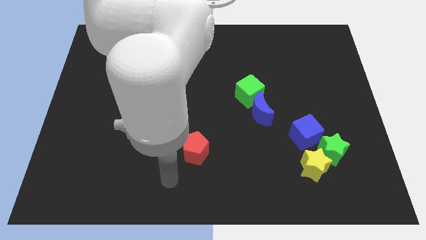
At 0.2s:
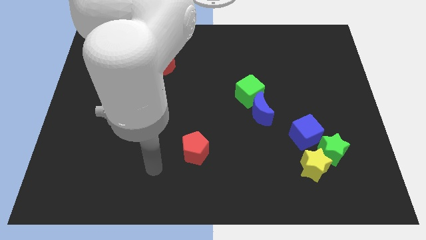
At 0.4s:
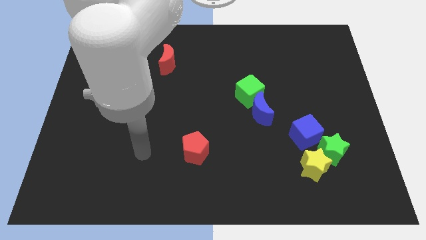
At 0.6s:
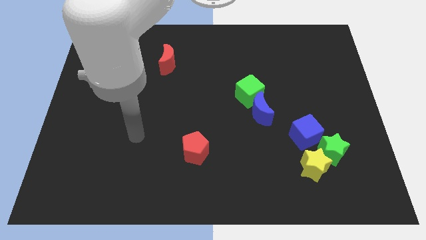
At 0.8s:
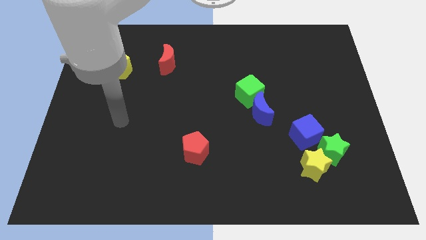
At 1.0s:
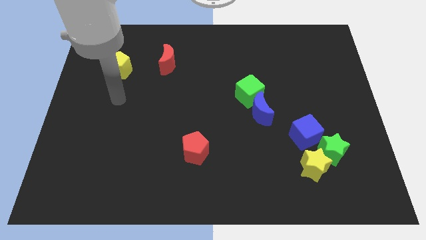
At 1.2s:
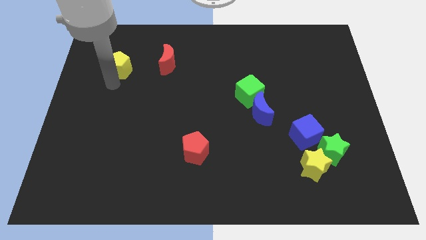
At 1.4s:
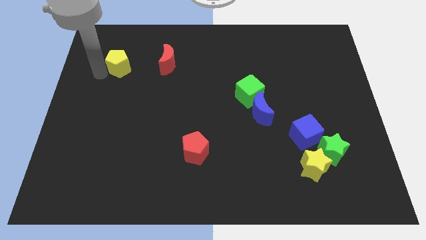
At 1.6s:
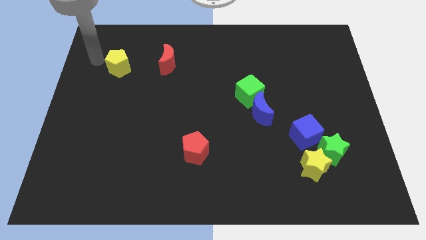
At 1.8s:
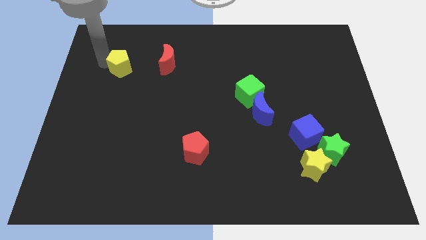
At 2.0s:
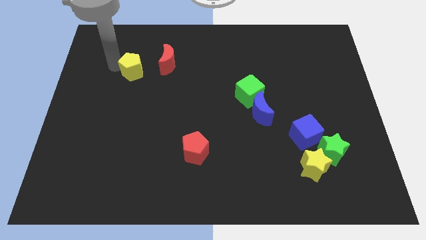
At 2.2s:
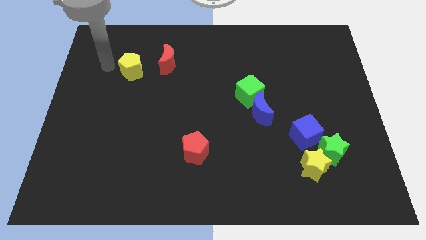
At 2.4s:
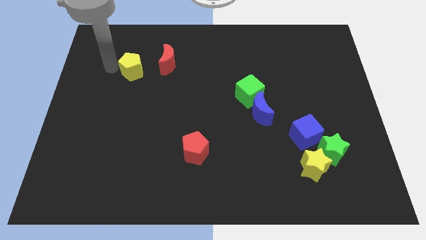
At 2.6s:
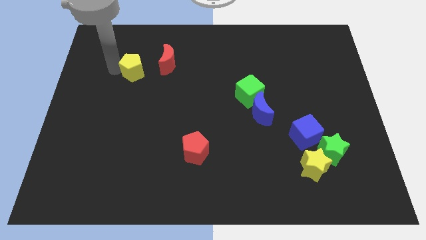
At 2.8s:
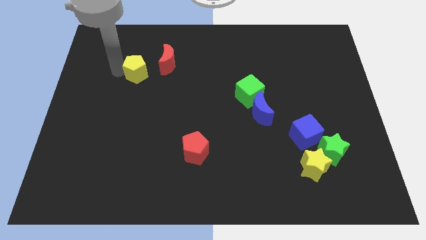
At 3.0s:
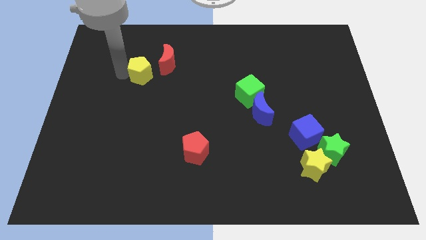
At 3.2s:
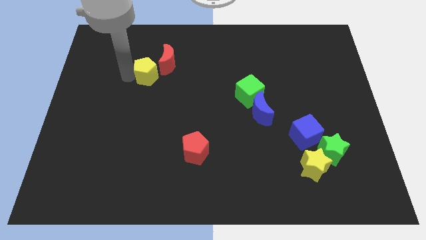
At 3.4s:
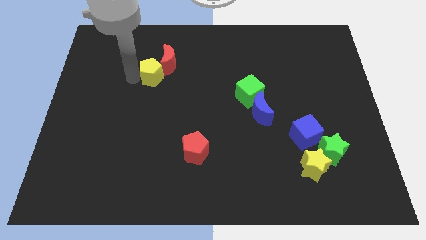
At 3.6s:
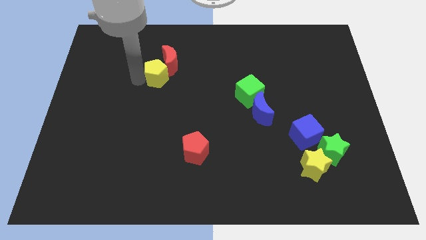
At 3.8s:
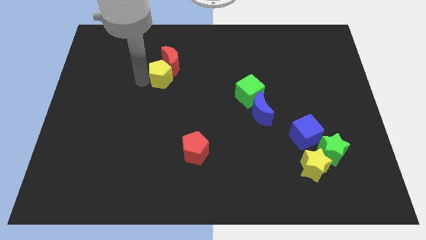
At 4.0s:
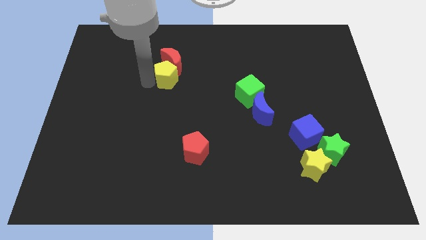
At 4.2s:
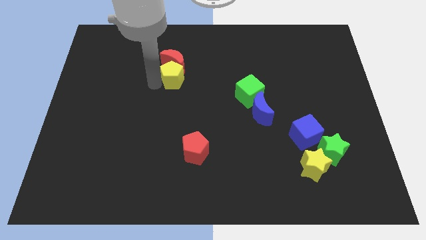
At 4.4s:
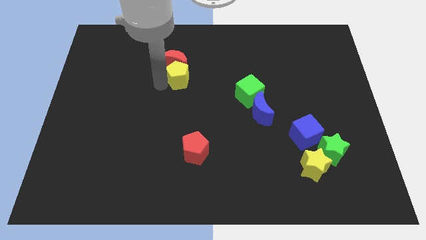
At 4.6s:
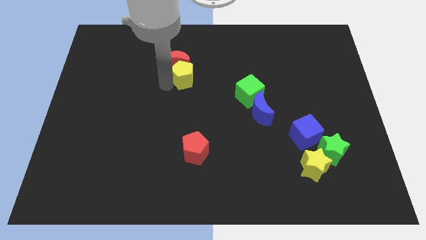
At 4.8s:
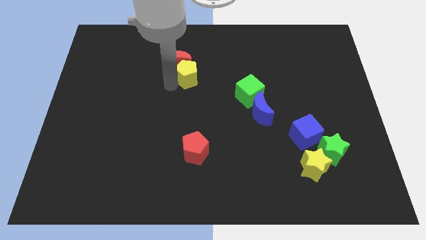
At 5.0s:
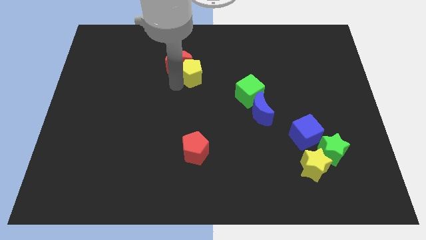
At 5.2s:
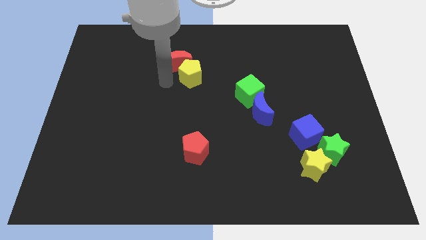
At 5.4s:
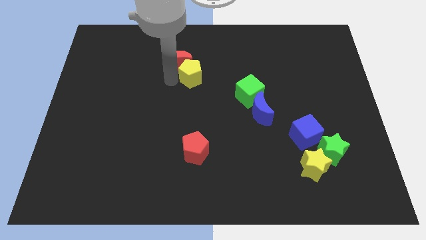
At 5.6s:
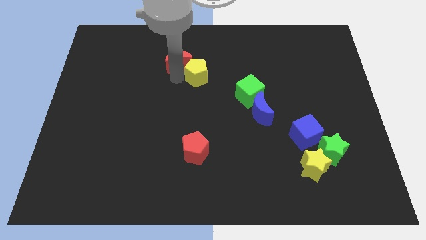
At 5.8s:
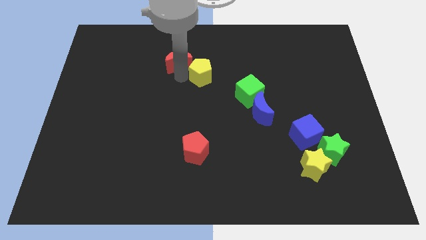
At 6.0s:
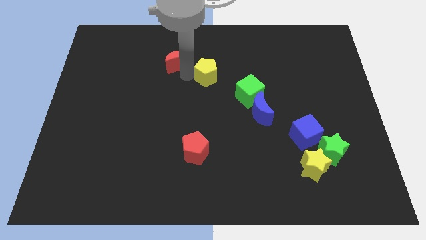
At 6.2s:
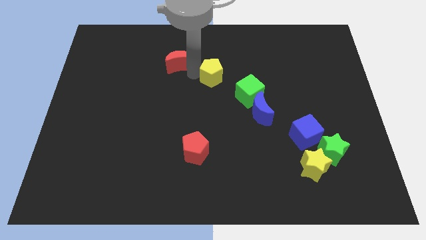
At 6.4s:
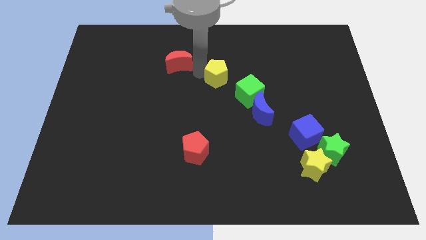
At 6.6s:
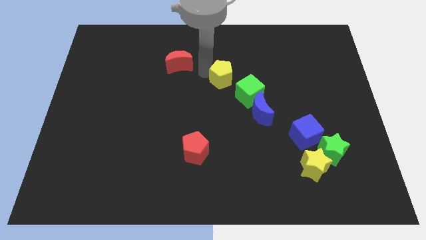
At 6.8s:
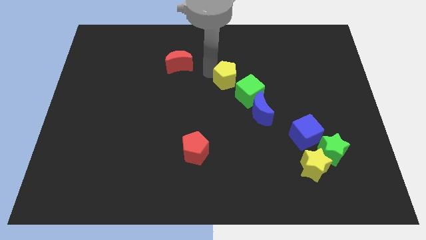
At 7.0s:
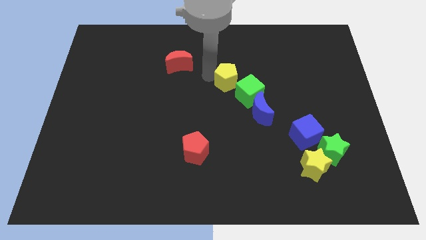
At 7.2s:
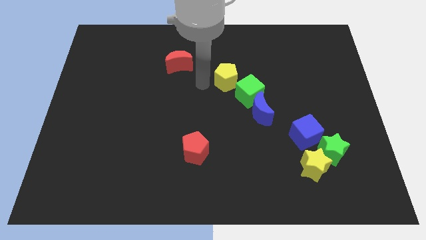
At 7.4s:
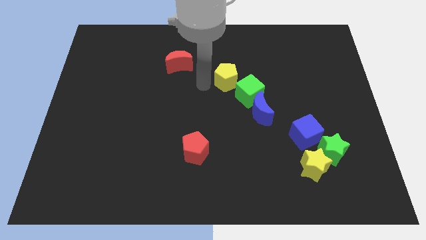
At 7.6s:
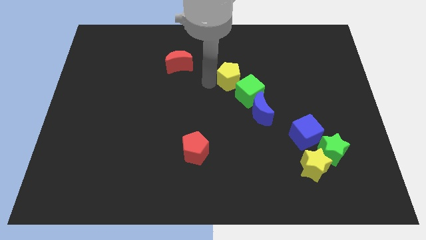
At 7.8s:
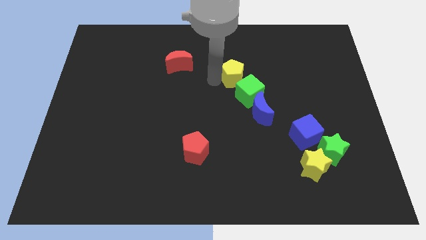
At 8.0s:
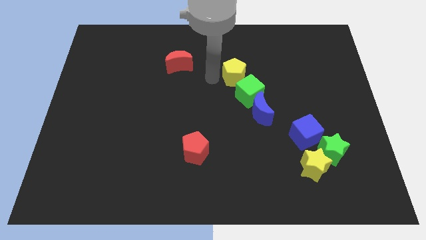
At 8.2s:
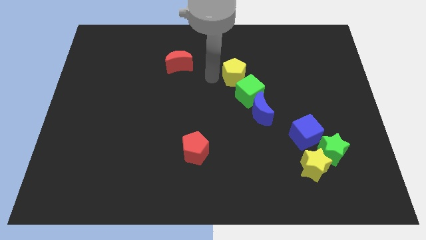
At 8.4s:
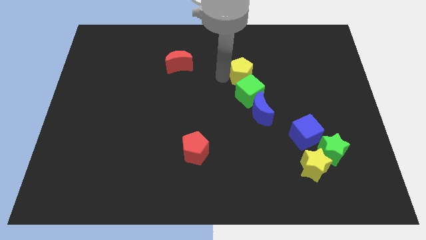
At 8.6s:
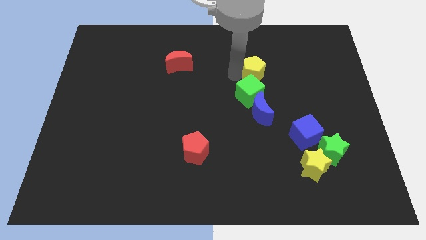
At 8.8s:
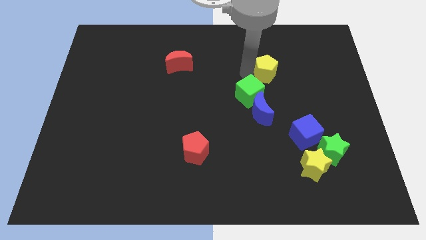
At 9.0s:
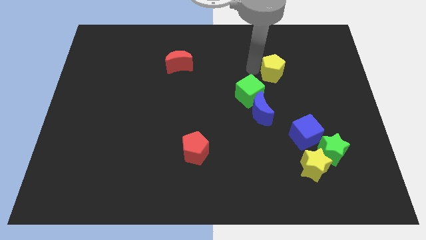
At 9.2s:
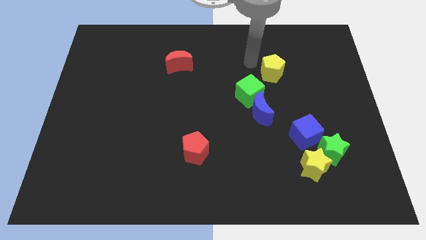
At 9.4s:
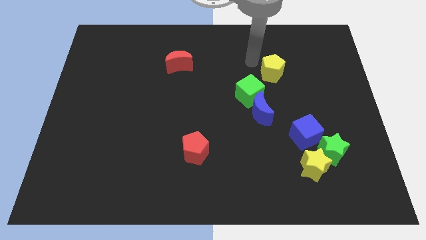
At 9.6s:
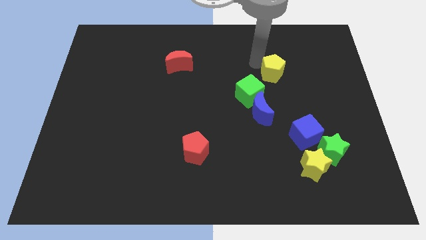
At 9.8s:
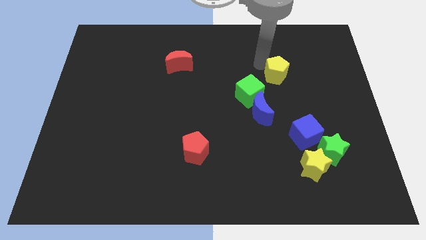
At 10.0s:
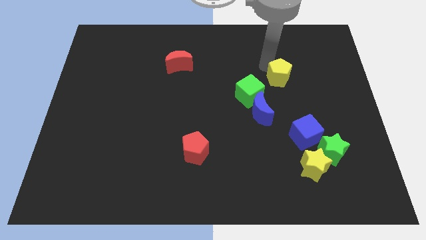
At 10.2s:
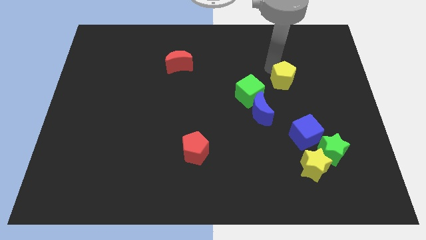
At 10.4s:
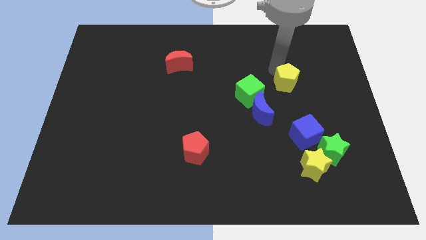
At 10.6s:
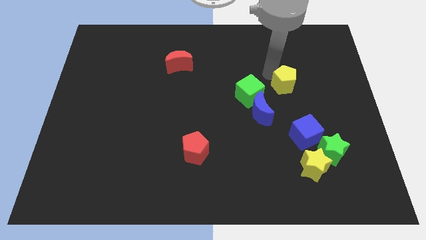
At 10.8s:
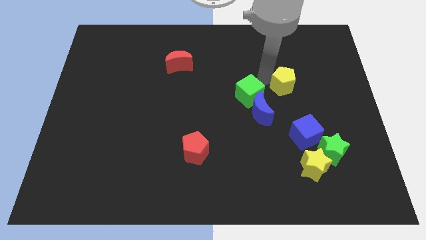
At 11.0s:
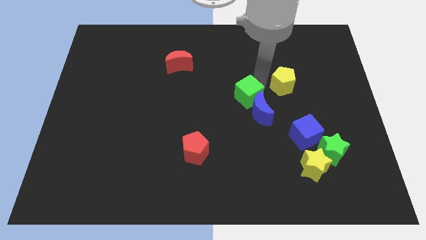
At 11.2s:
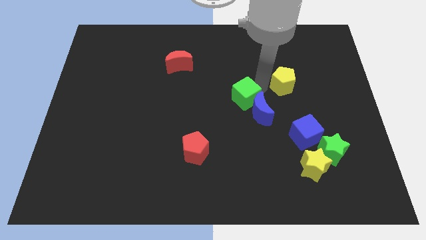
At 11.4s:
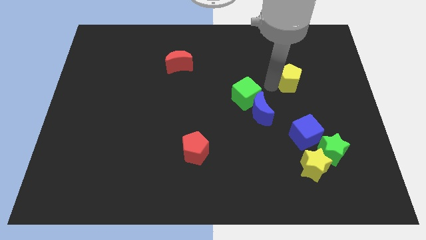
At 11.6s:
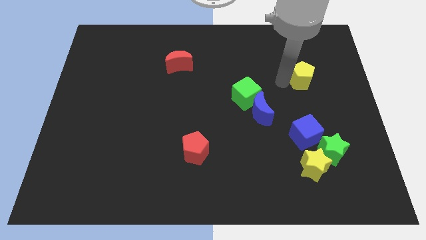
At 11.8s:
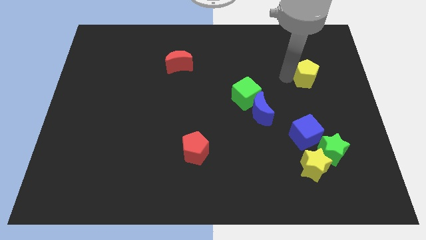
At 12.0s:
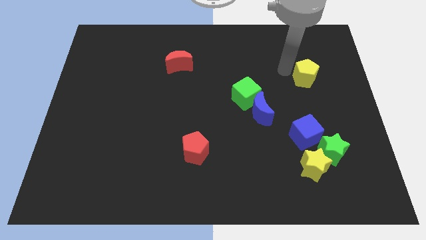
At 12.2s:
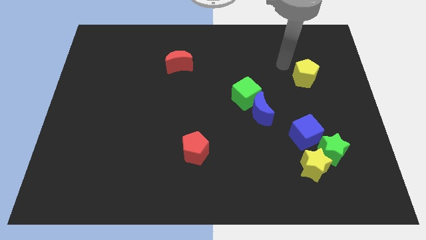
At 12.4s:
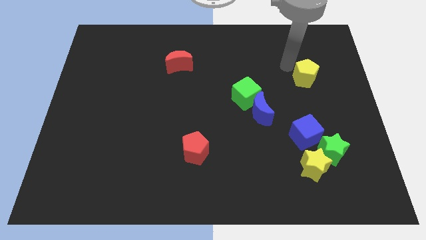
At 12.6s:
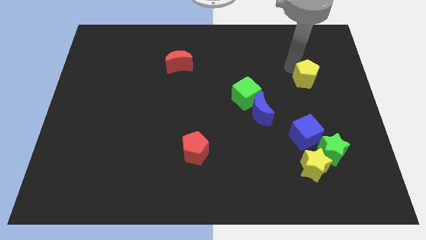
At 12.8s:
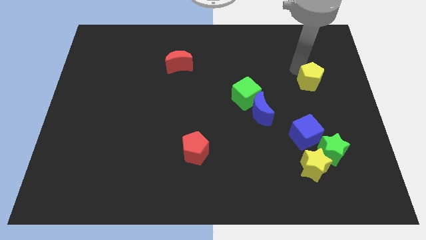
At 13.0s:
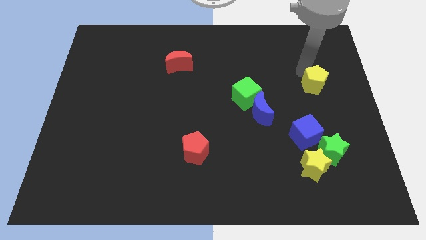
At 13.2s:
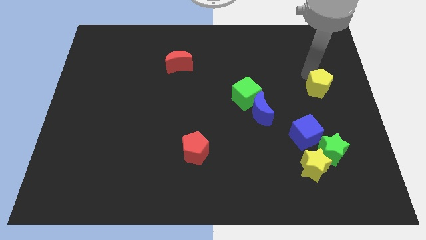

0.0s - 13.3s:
put the yellow pentagon to the right side
